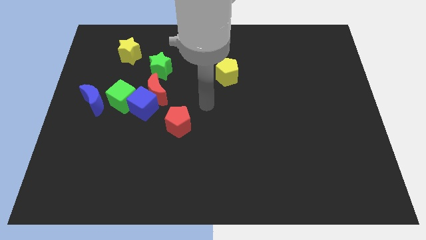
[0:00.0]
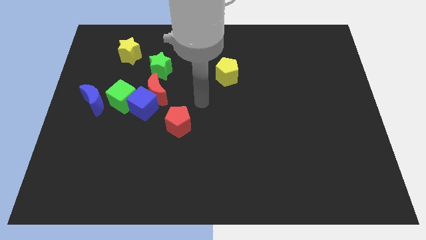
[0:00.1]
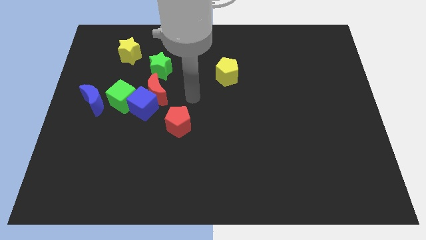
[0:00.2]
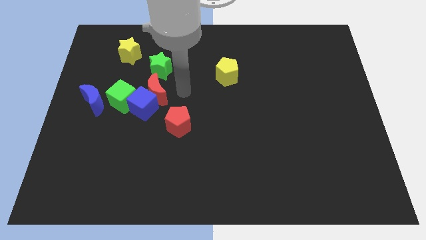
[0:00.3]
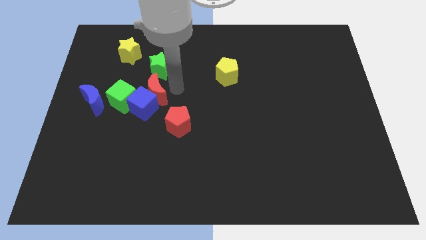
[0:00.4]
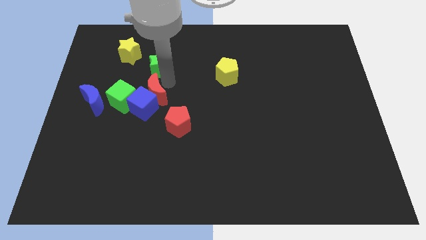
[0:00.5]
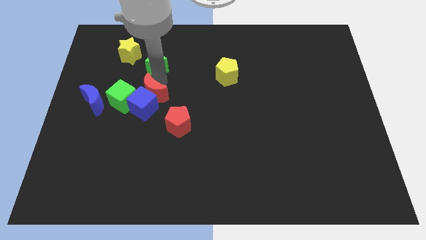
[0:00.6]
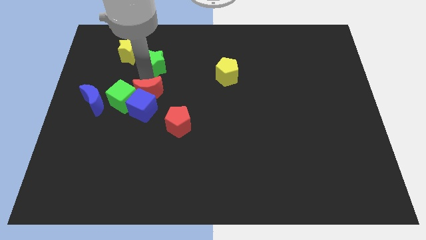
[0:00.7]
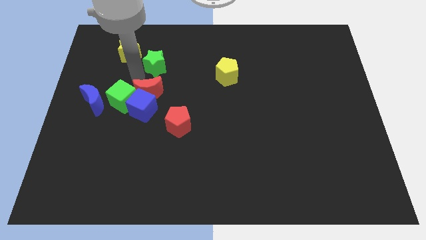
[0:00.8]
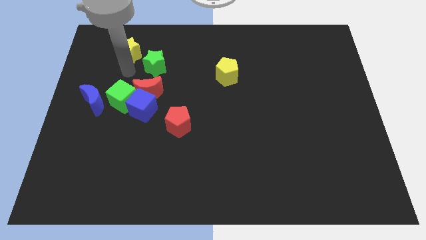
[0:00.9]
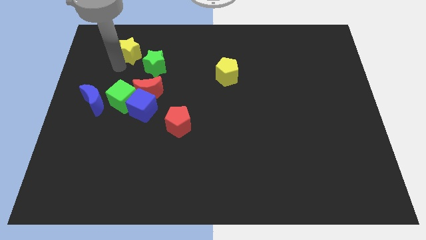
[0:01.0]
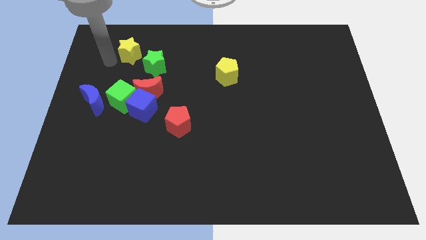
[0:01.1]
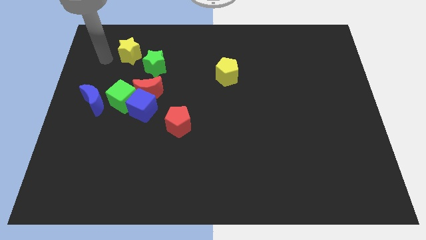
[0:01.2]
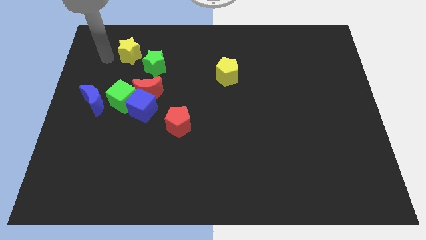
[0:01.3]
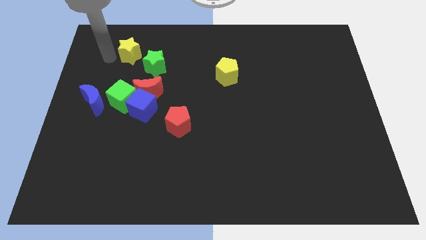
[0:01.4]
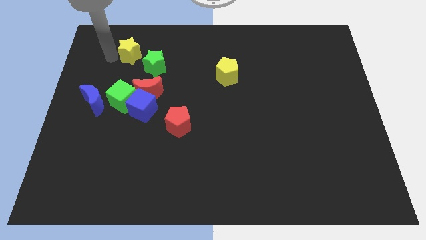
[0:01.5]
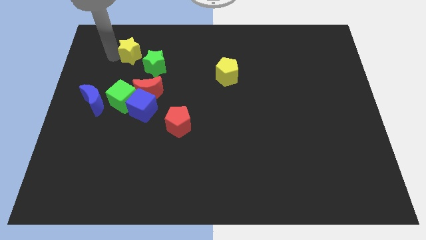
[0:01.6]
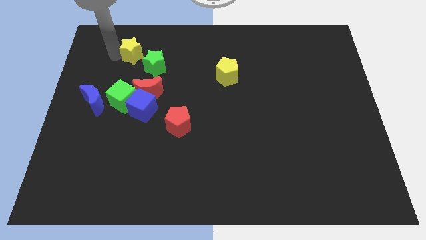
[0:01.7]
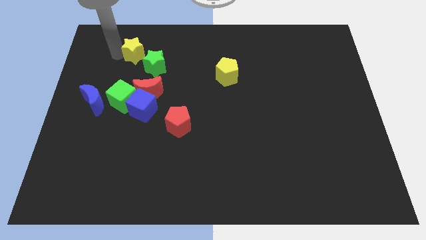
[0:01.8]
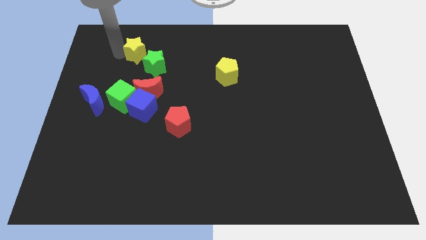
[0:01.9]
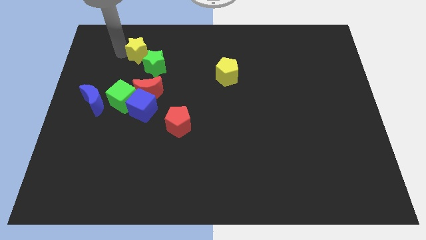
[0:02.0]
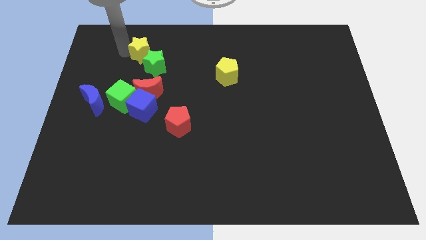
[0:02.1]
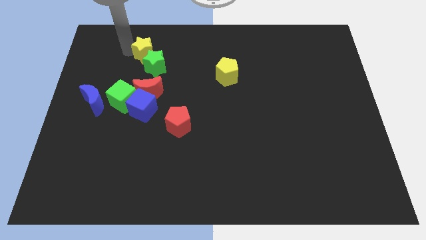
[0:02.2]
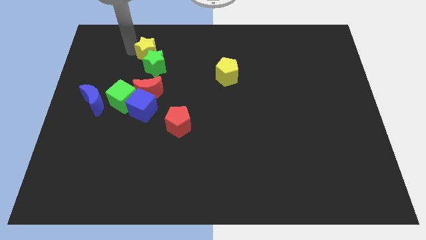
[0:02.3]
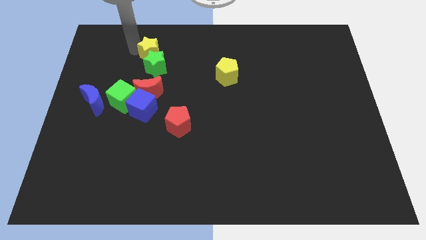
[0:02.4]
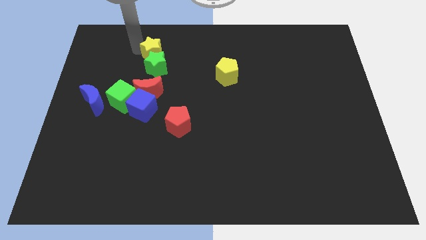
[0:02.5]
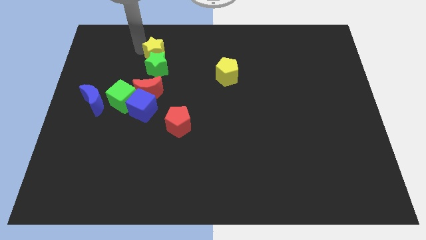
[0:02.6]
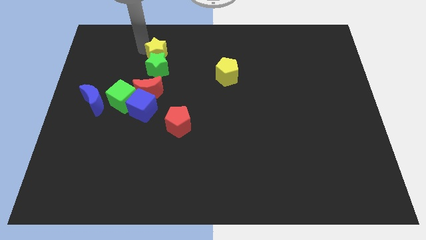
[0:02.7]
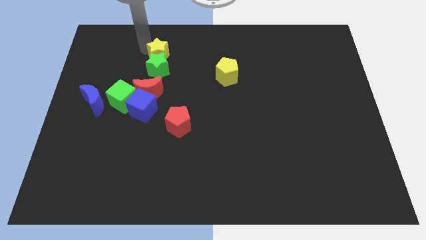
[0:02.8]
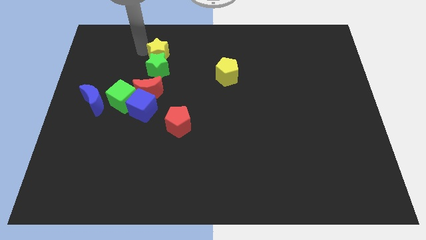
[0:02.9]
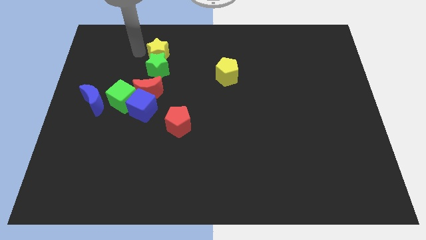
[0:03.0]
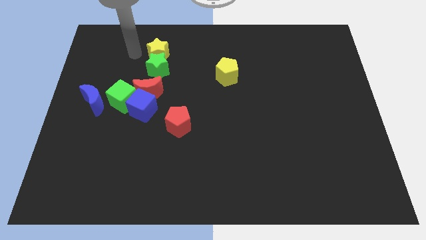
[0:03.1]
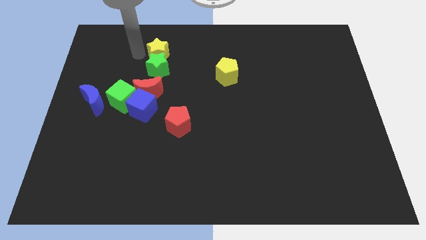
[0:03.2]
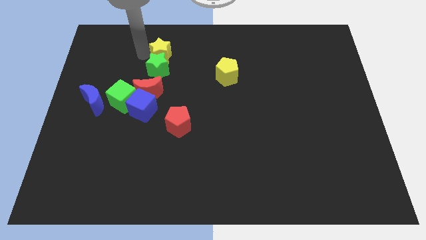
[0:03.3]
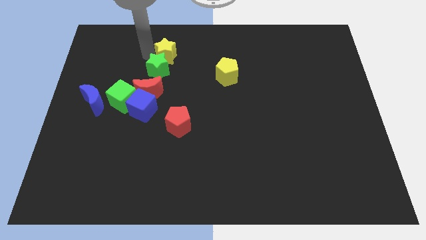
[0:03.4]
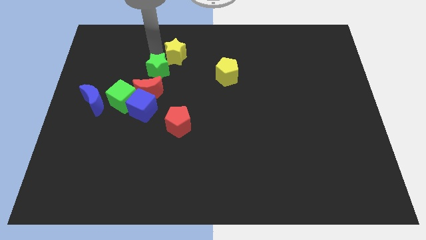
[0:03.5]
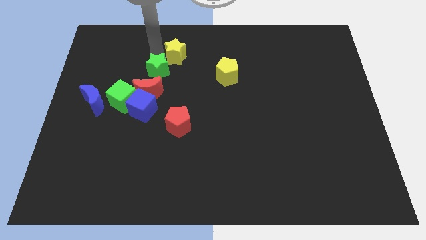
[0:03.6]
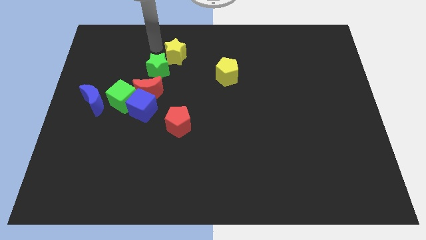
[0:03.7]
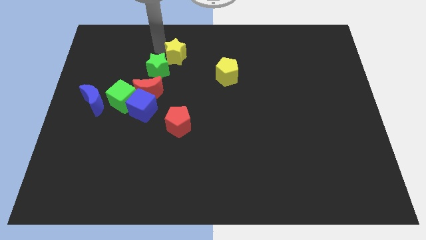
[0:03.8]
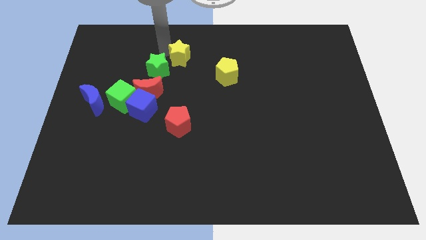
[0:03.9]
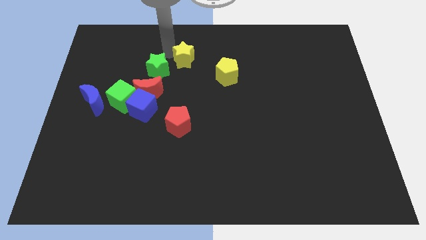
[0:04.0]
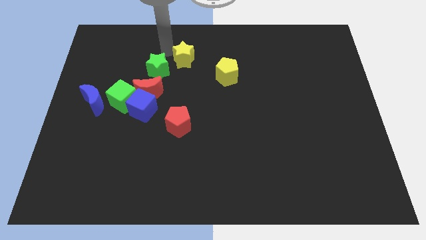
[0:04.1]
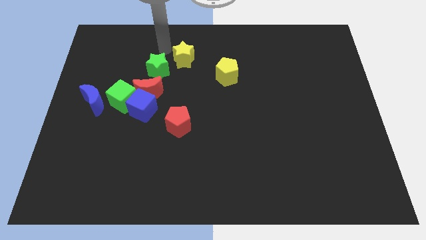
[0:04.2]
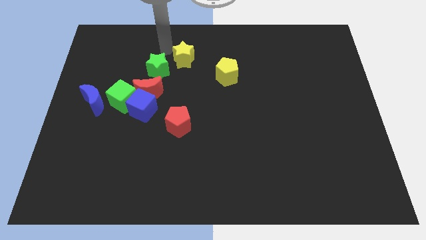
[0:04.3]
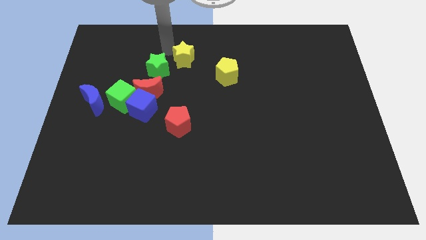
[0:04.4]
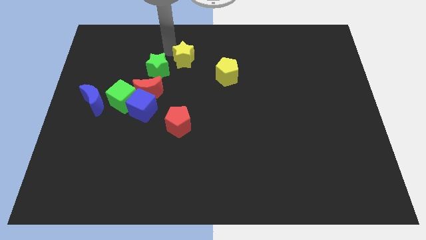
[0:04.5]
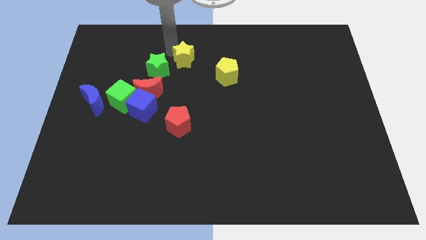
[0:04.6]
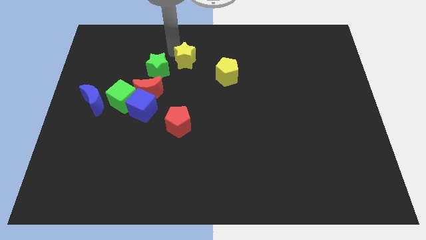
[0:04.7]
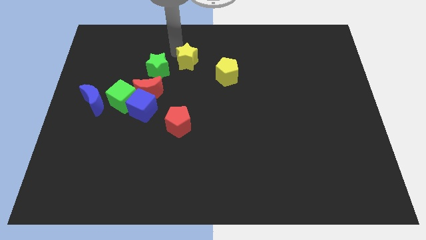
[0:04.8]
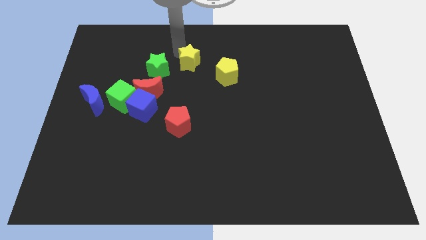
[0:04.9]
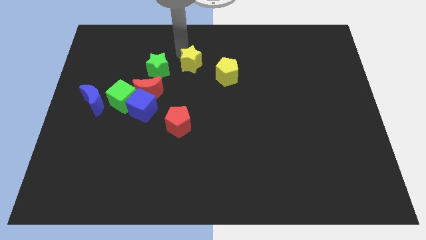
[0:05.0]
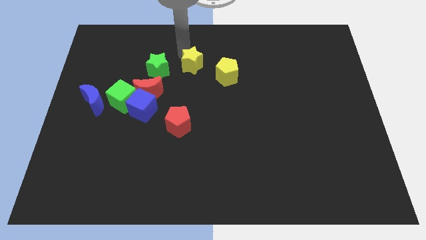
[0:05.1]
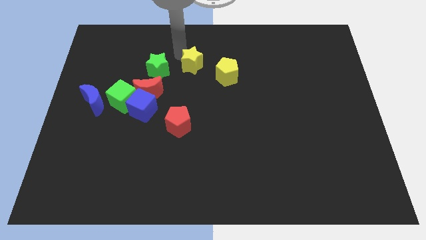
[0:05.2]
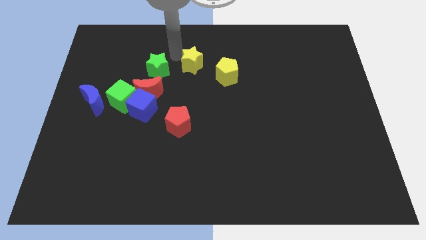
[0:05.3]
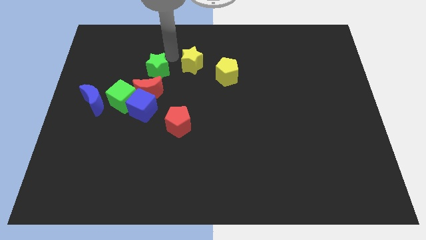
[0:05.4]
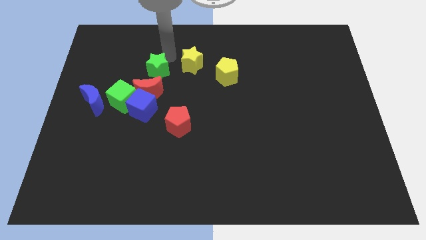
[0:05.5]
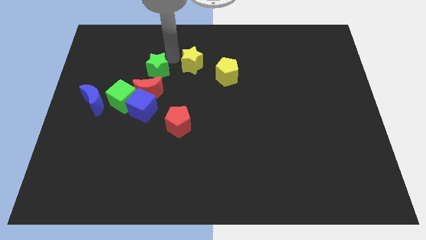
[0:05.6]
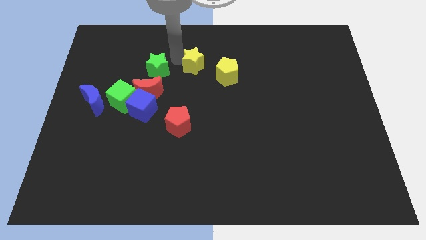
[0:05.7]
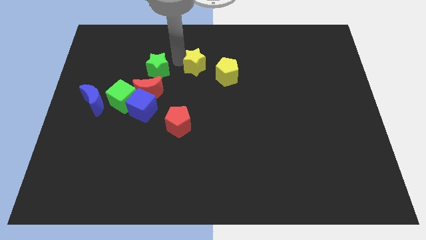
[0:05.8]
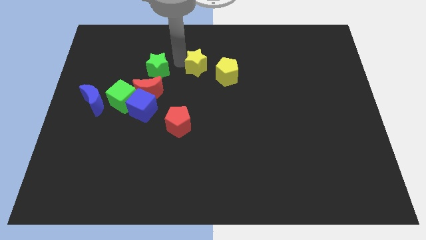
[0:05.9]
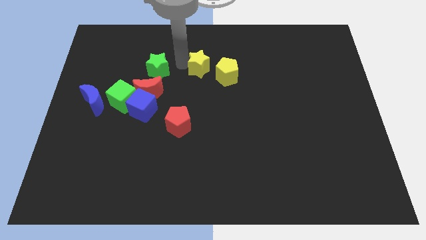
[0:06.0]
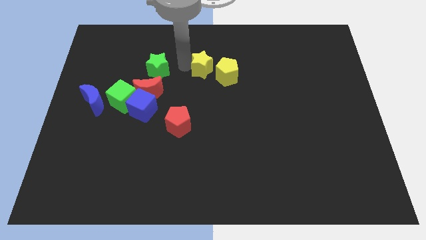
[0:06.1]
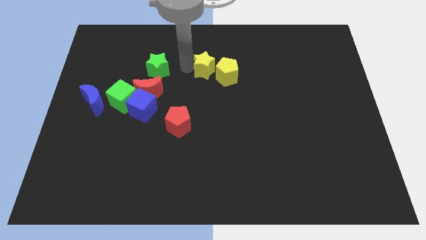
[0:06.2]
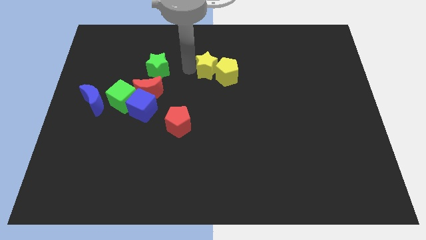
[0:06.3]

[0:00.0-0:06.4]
put the yellow star close to the yellow pentagon
